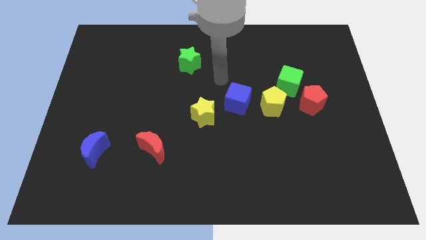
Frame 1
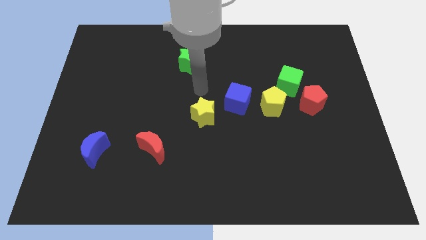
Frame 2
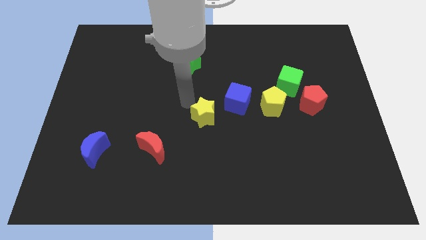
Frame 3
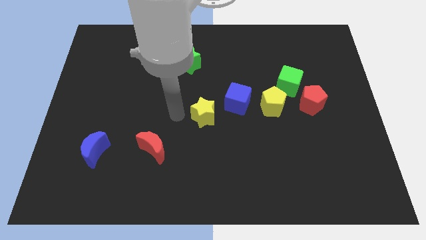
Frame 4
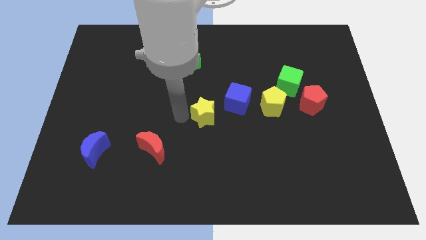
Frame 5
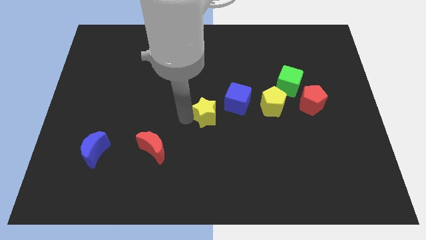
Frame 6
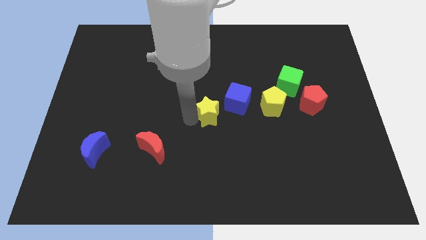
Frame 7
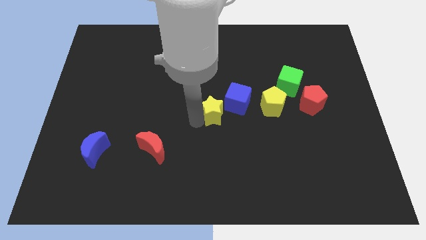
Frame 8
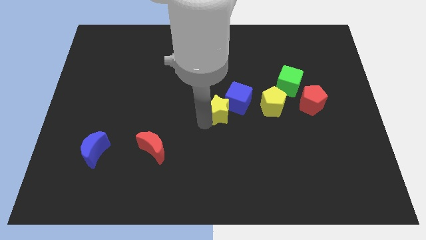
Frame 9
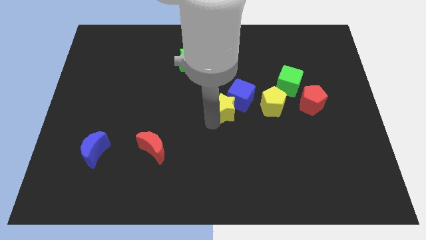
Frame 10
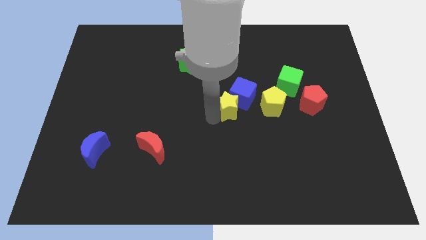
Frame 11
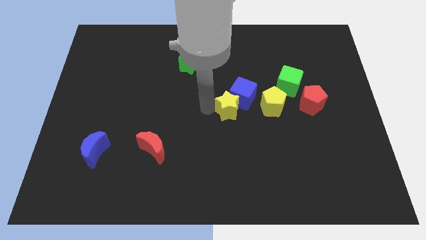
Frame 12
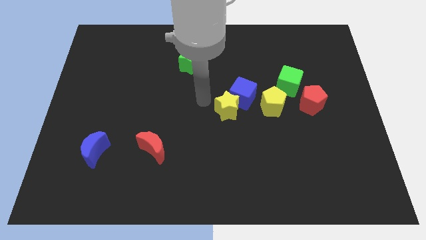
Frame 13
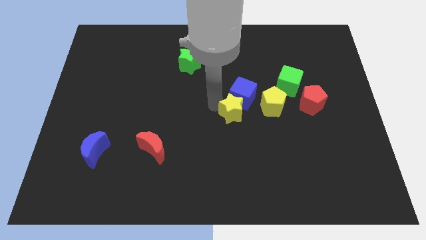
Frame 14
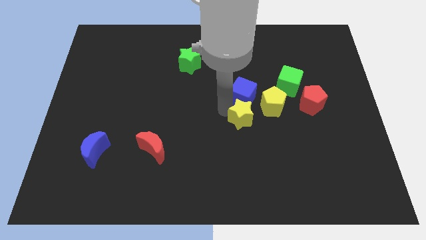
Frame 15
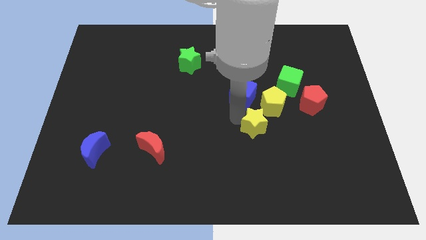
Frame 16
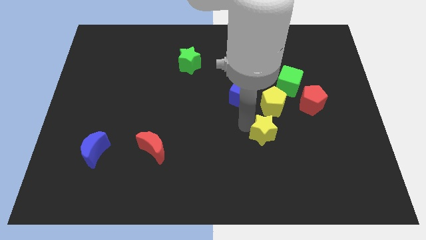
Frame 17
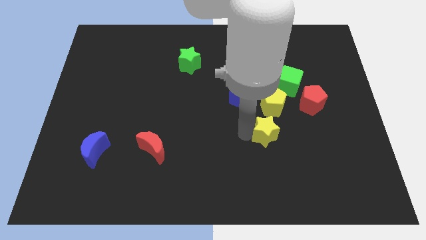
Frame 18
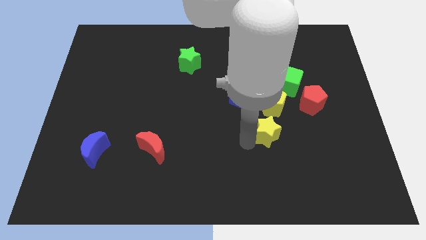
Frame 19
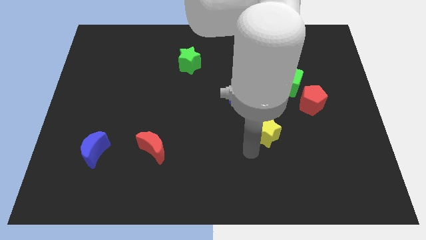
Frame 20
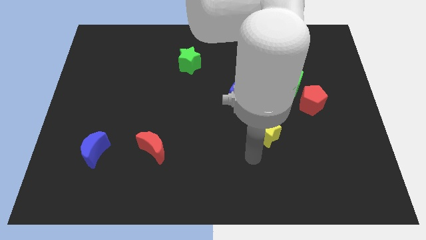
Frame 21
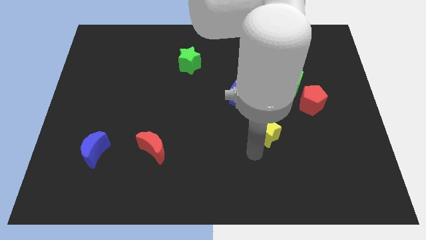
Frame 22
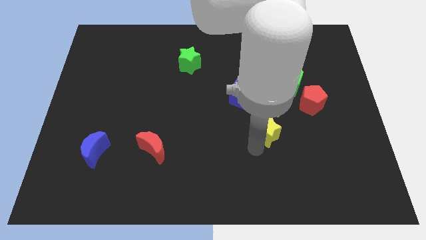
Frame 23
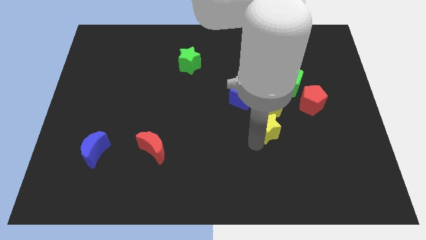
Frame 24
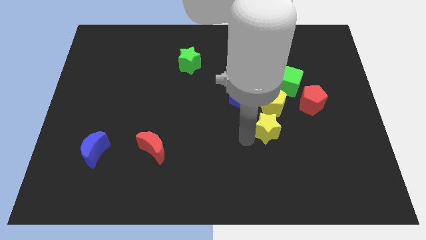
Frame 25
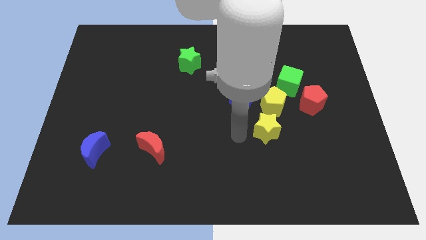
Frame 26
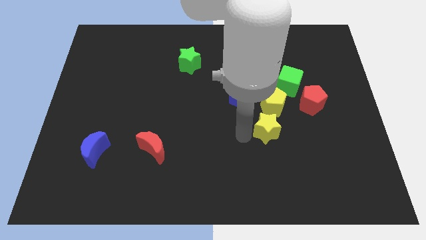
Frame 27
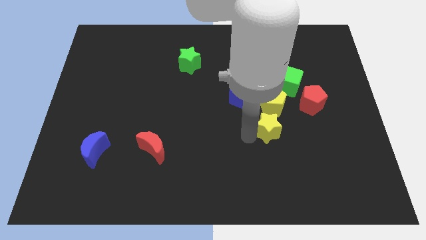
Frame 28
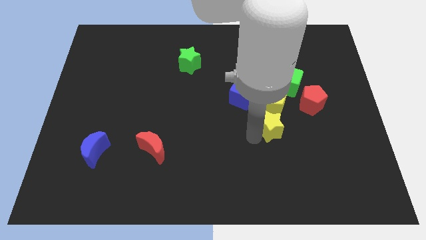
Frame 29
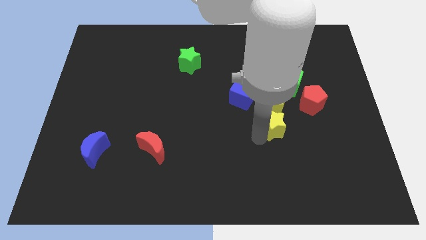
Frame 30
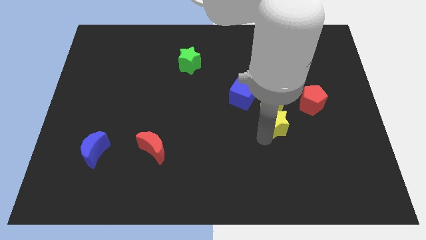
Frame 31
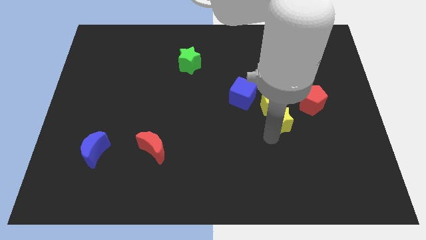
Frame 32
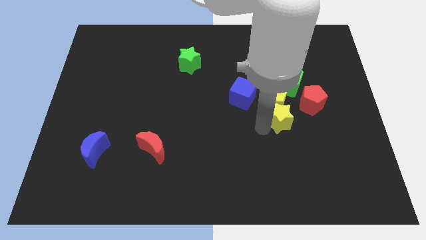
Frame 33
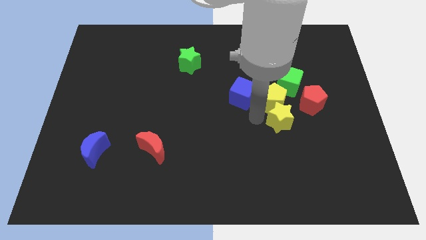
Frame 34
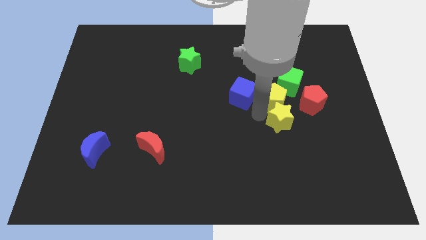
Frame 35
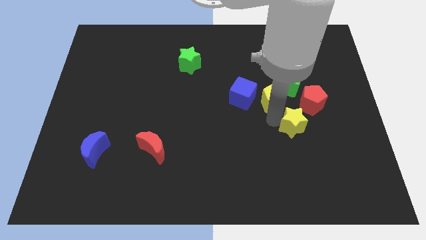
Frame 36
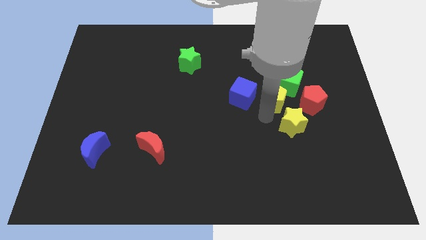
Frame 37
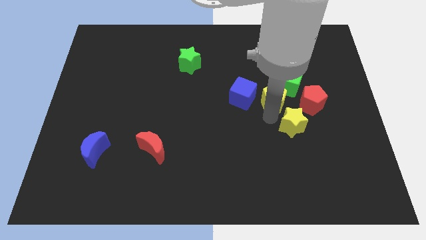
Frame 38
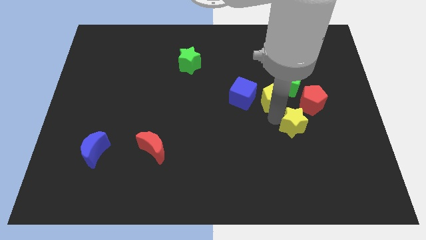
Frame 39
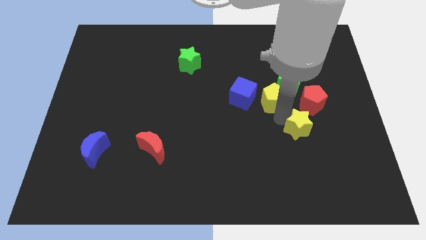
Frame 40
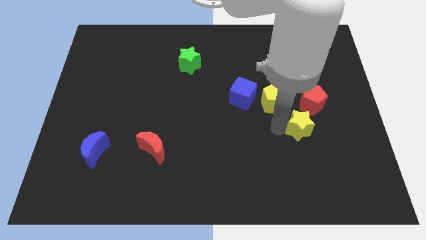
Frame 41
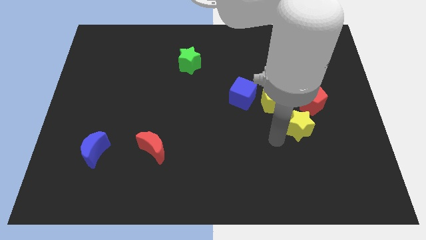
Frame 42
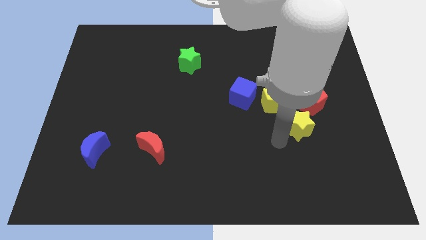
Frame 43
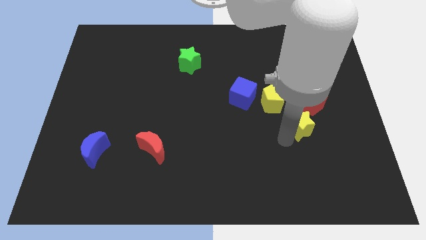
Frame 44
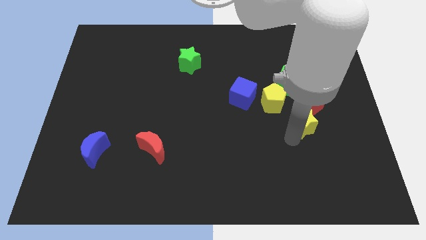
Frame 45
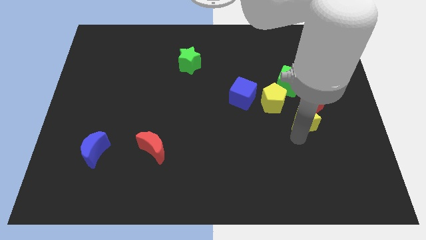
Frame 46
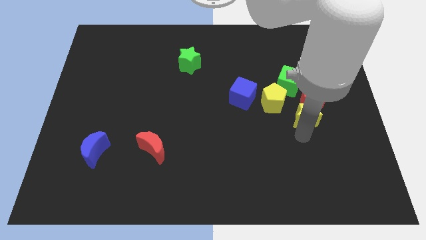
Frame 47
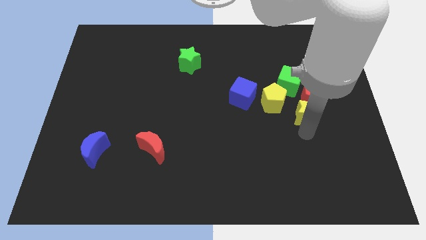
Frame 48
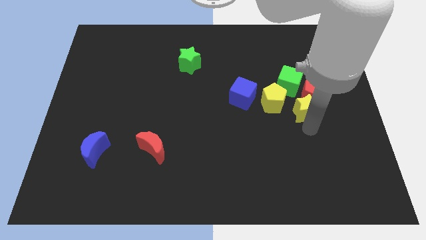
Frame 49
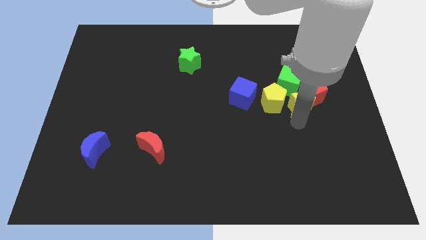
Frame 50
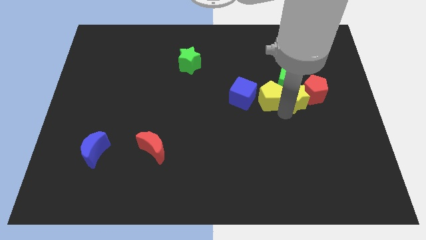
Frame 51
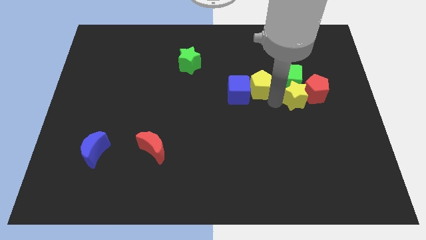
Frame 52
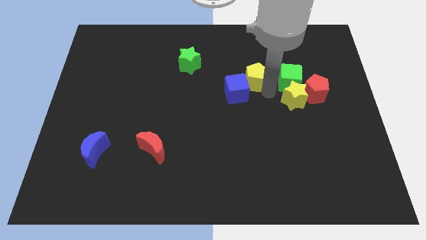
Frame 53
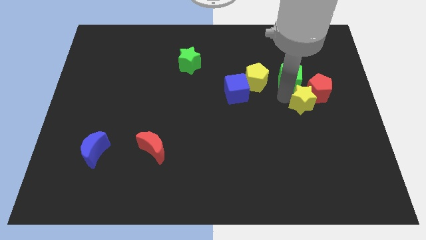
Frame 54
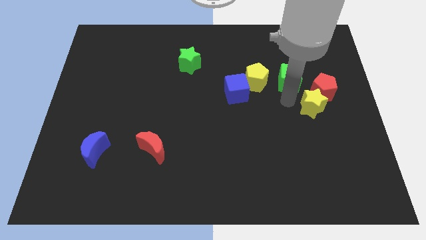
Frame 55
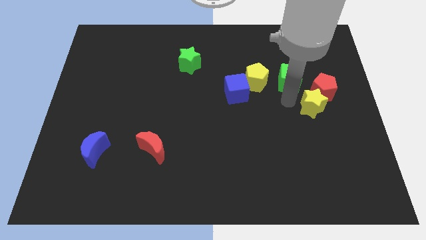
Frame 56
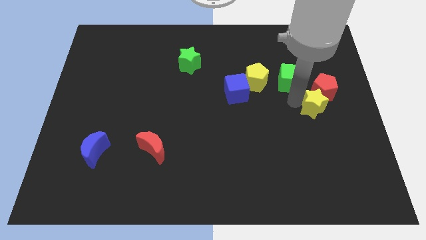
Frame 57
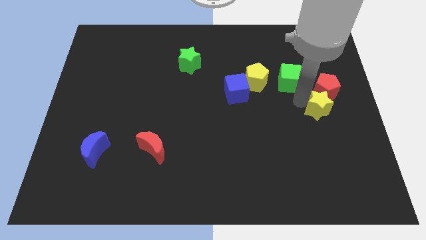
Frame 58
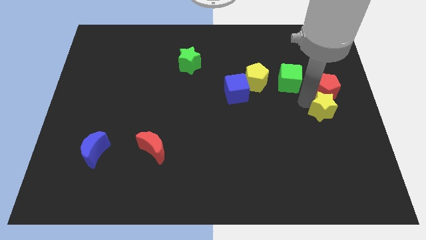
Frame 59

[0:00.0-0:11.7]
move the yellow star to the center right

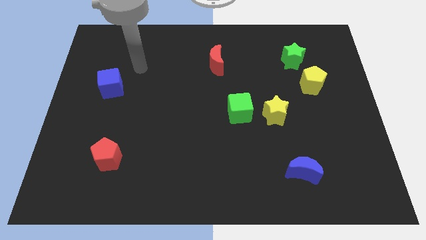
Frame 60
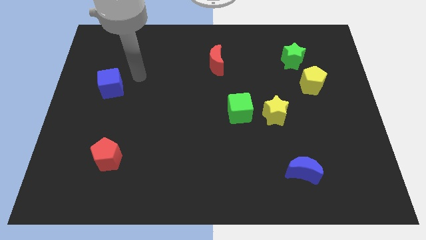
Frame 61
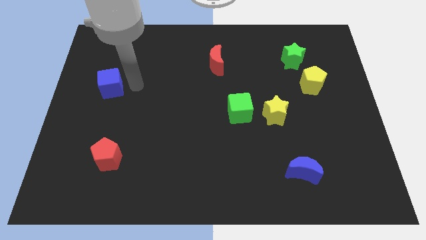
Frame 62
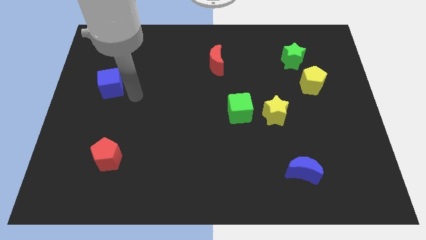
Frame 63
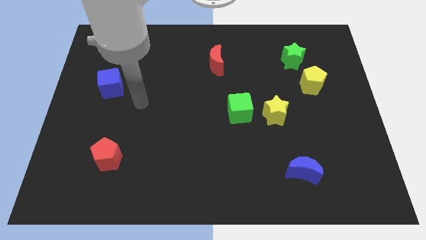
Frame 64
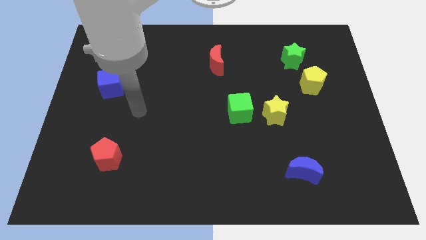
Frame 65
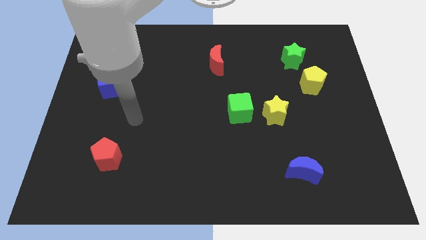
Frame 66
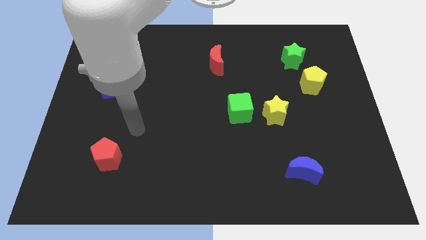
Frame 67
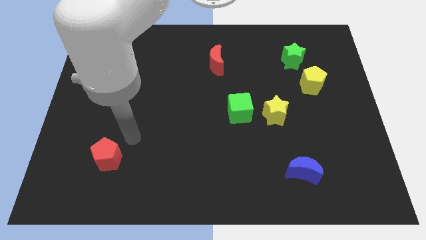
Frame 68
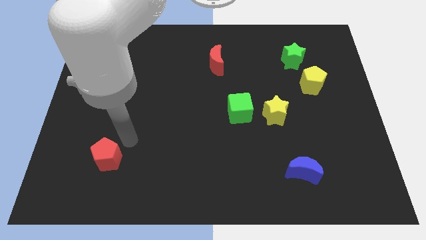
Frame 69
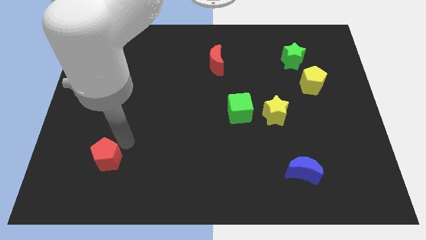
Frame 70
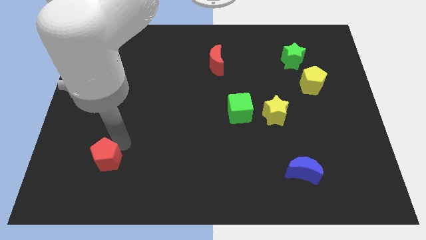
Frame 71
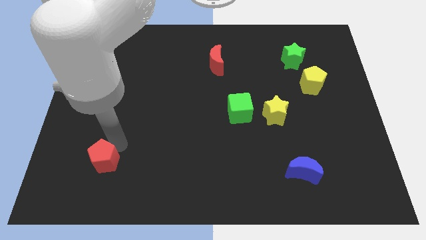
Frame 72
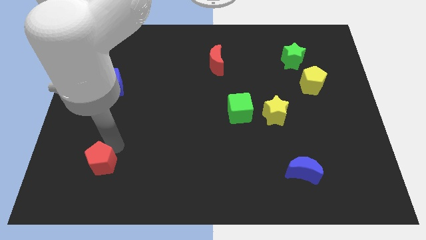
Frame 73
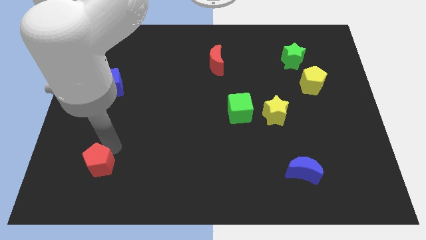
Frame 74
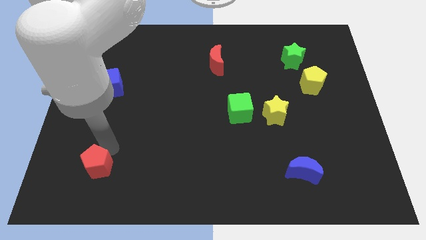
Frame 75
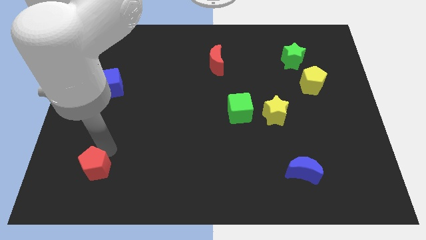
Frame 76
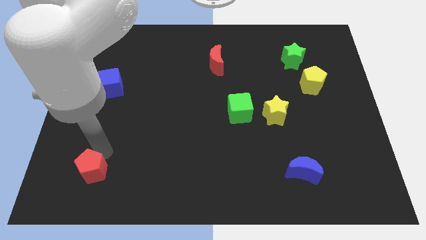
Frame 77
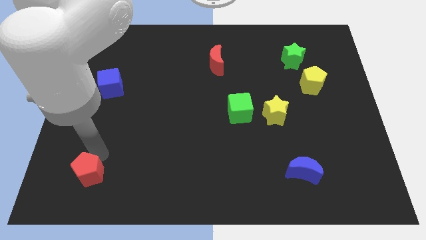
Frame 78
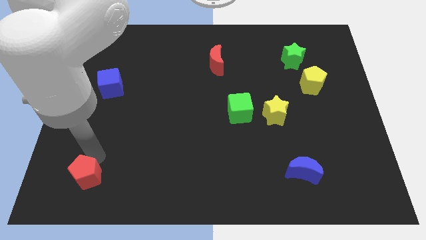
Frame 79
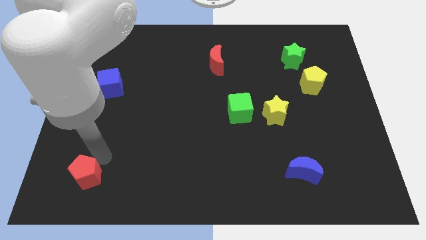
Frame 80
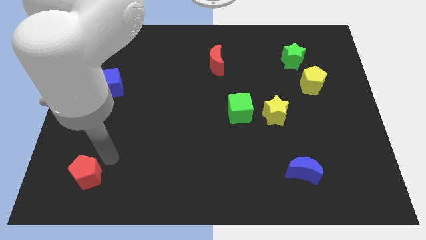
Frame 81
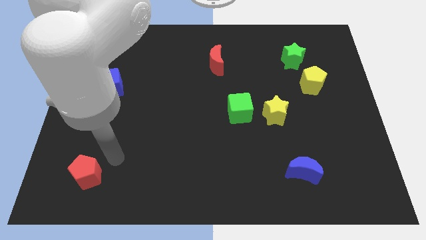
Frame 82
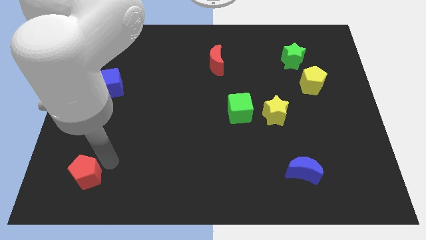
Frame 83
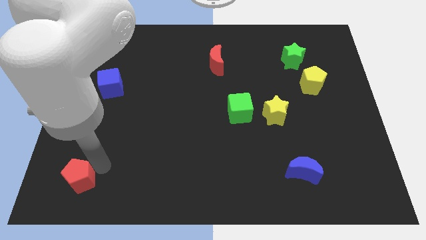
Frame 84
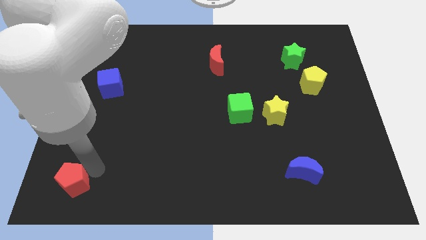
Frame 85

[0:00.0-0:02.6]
push the red pentagon to the bottom left of the board
